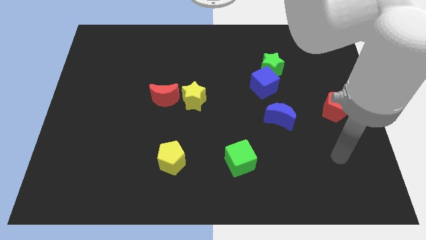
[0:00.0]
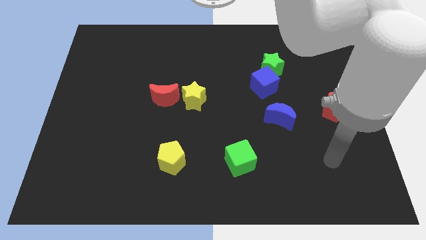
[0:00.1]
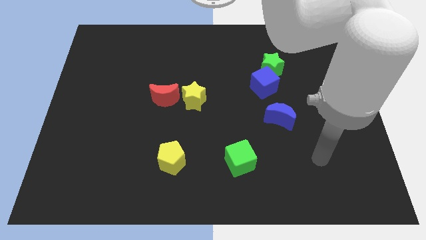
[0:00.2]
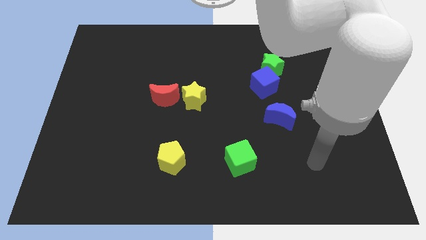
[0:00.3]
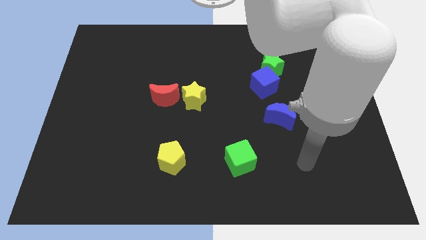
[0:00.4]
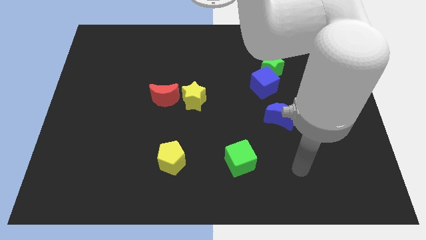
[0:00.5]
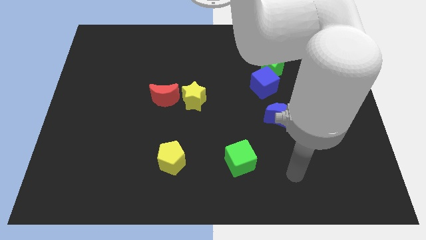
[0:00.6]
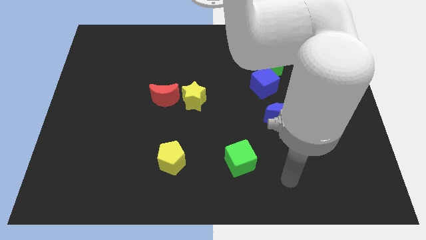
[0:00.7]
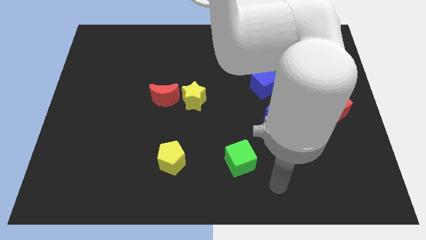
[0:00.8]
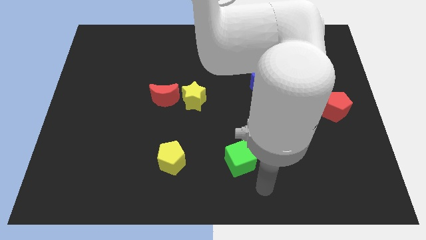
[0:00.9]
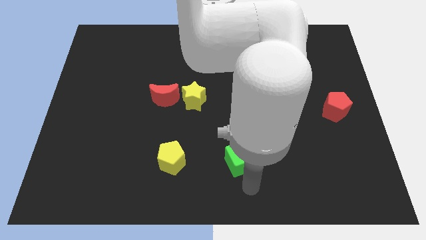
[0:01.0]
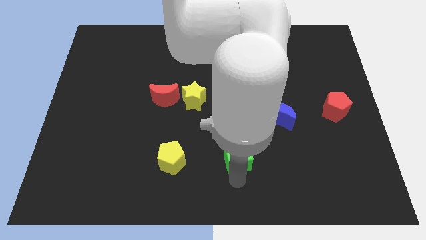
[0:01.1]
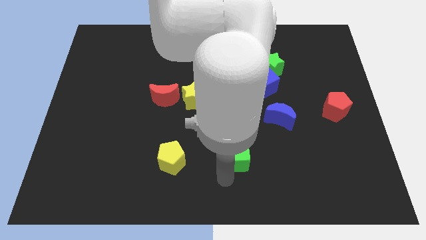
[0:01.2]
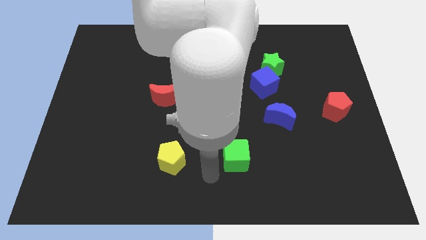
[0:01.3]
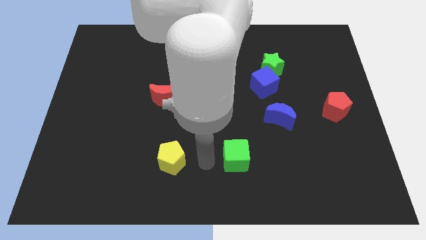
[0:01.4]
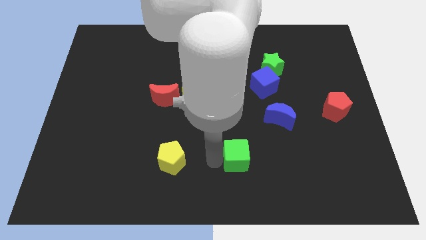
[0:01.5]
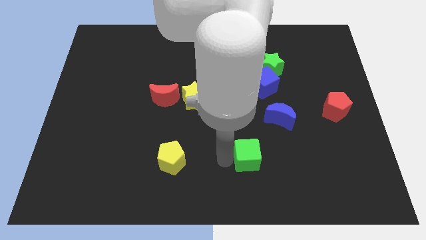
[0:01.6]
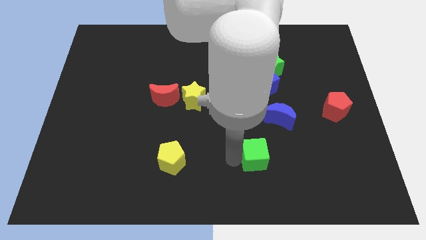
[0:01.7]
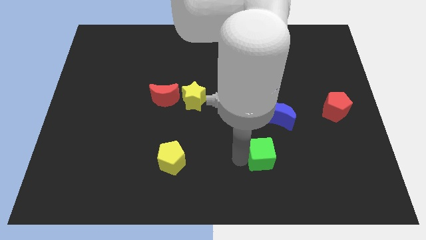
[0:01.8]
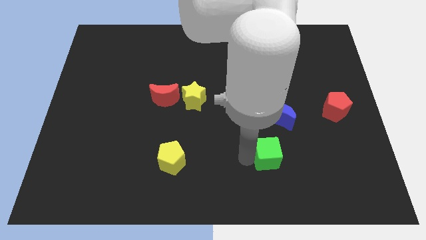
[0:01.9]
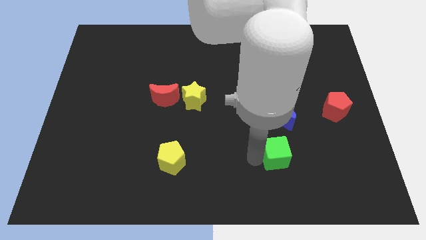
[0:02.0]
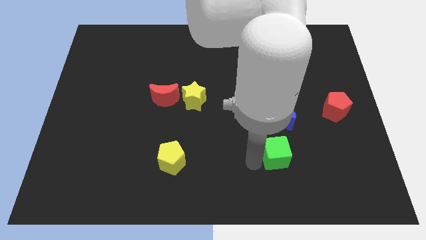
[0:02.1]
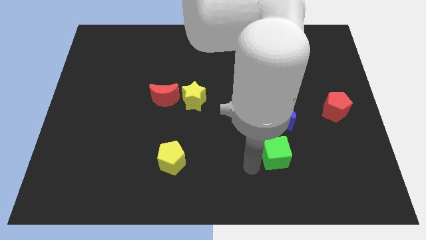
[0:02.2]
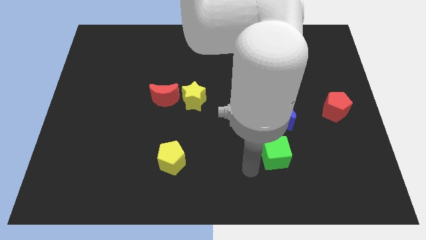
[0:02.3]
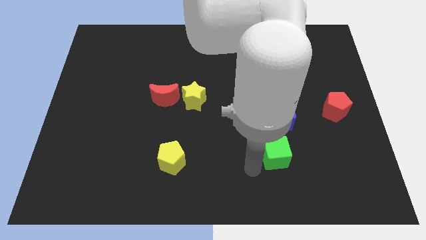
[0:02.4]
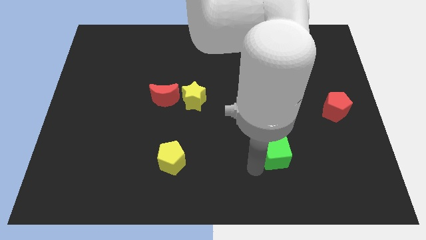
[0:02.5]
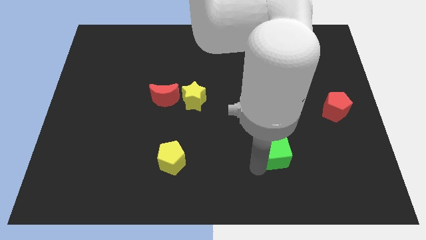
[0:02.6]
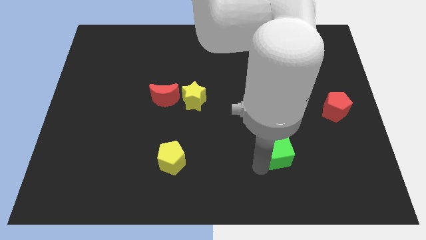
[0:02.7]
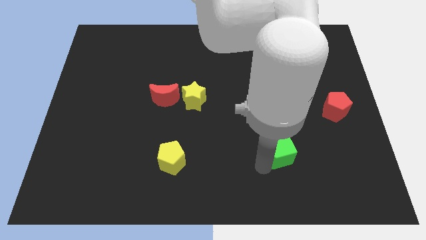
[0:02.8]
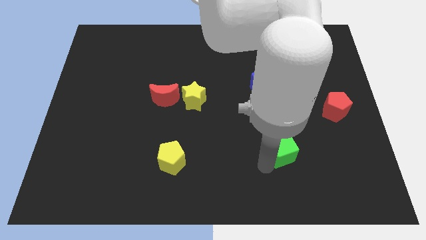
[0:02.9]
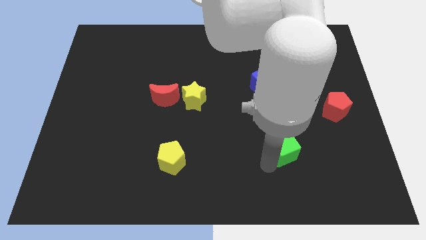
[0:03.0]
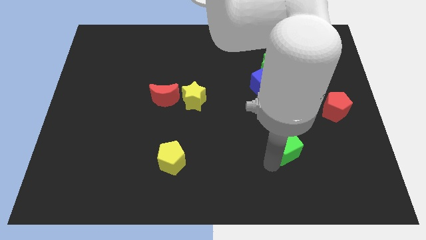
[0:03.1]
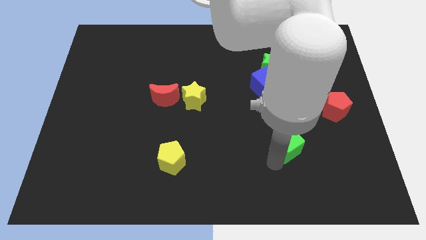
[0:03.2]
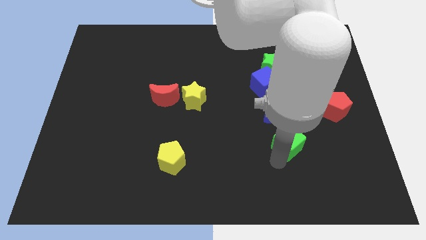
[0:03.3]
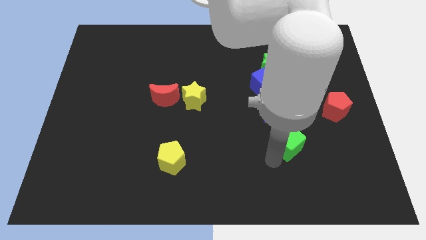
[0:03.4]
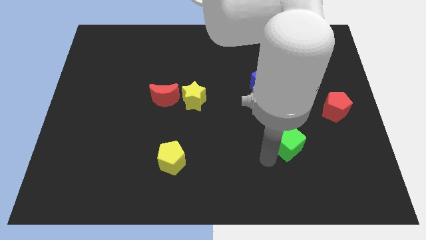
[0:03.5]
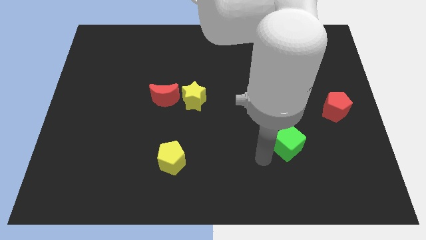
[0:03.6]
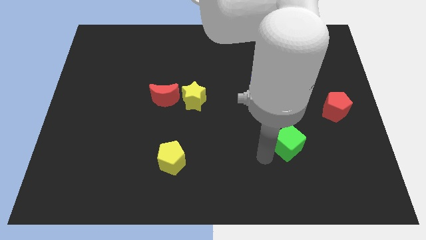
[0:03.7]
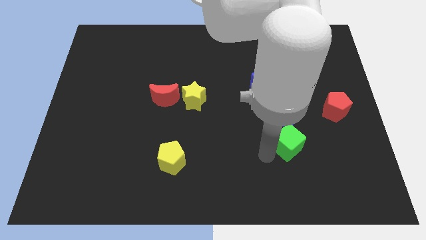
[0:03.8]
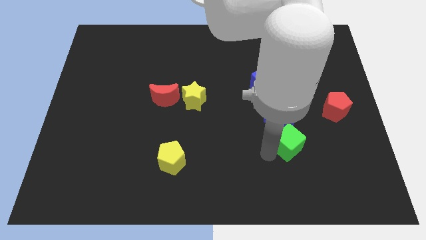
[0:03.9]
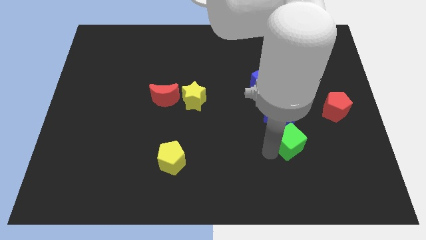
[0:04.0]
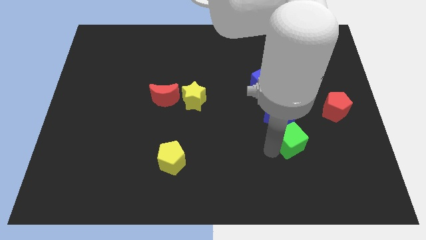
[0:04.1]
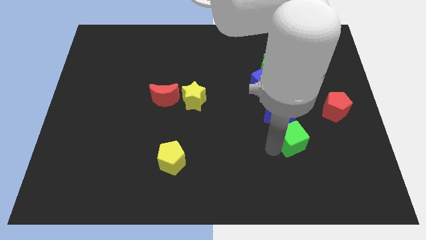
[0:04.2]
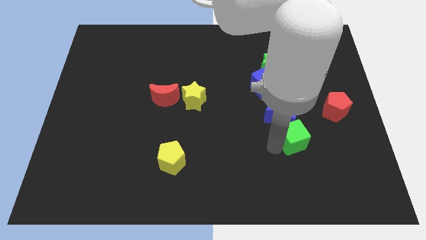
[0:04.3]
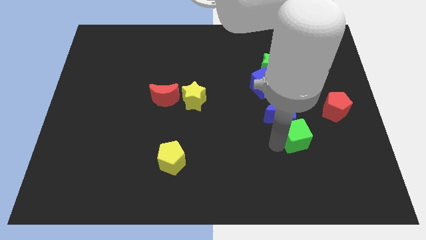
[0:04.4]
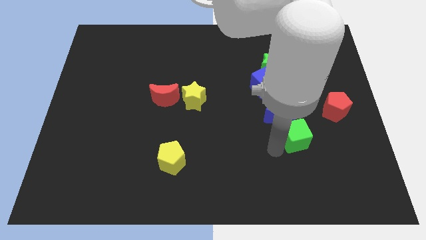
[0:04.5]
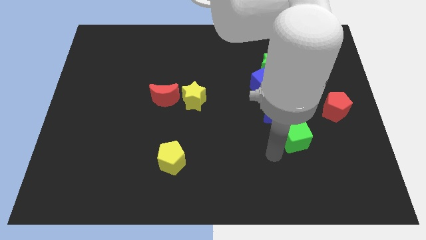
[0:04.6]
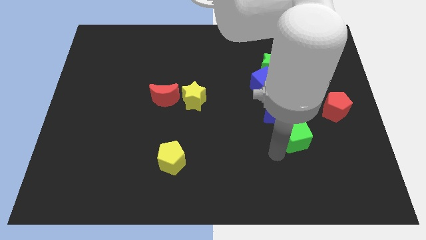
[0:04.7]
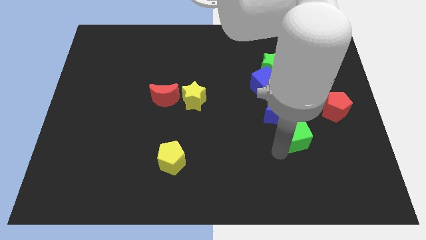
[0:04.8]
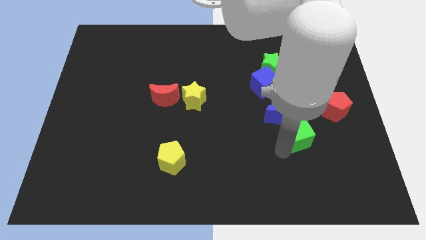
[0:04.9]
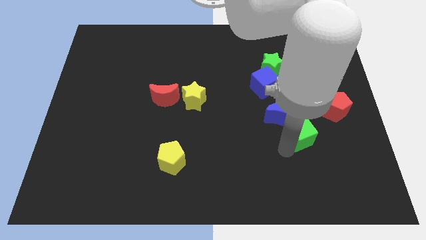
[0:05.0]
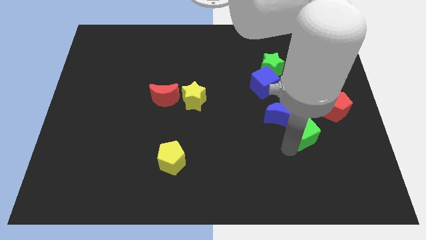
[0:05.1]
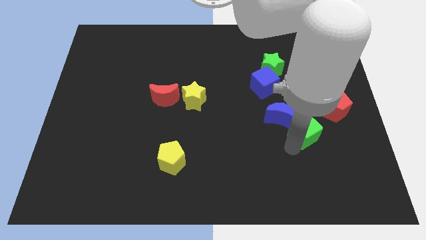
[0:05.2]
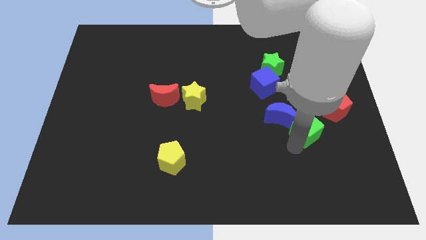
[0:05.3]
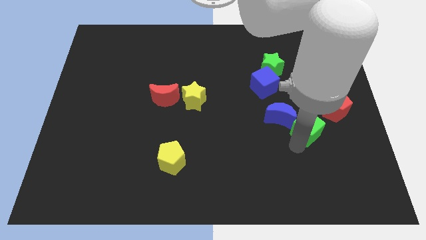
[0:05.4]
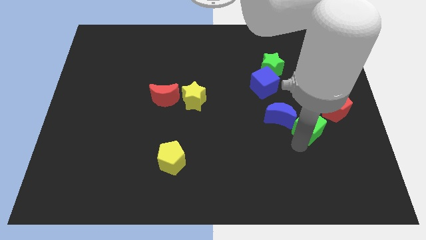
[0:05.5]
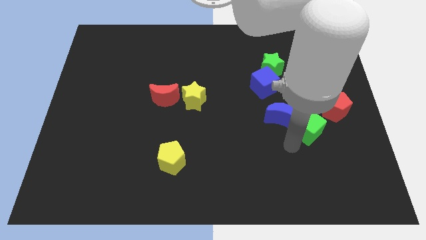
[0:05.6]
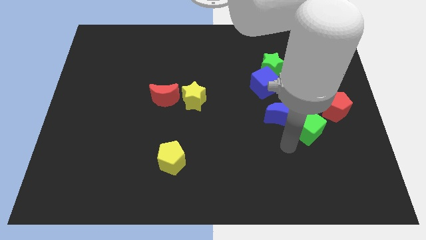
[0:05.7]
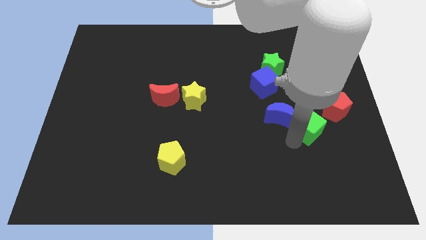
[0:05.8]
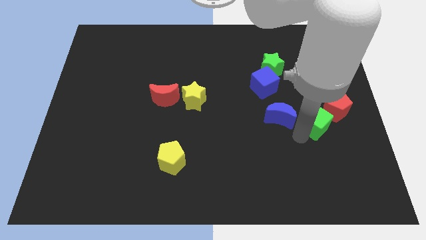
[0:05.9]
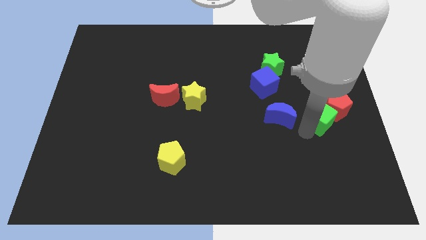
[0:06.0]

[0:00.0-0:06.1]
move the green cube towards the red pentagon

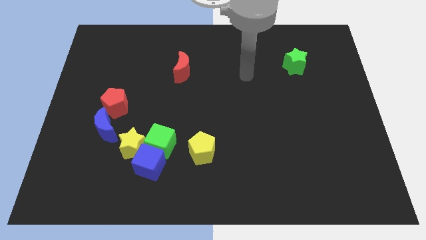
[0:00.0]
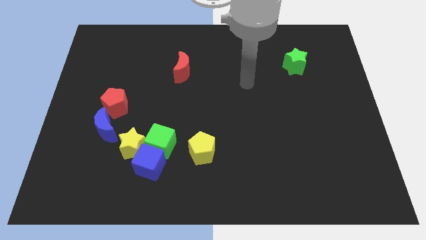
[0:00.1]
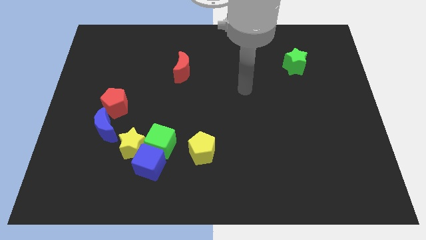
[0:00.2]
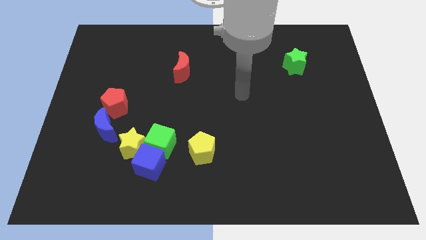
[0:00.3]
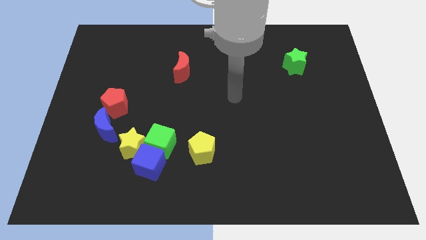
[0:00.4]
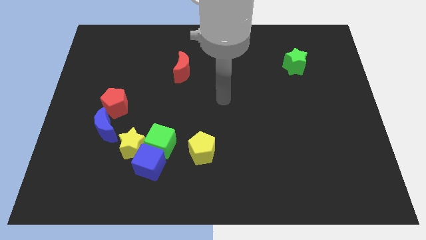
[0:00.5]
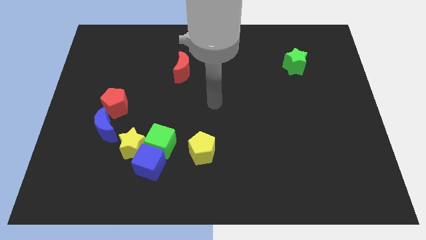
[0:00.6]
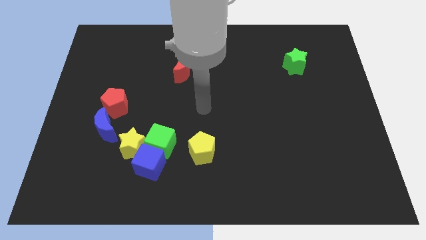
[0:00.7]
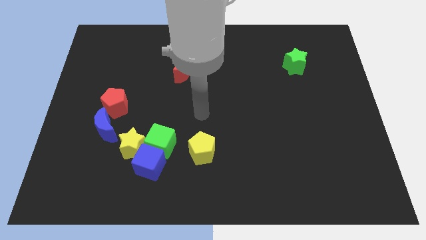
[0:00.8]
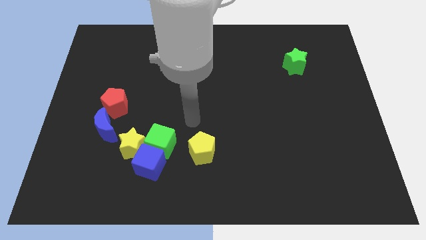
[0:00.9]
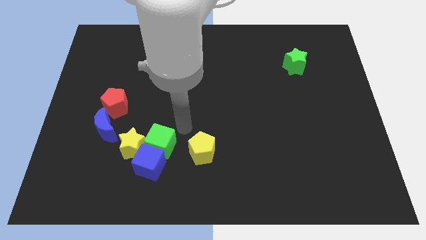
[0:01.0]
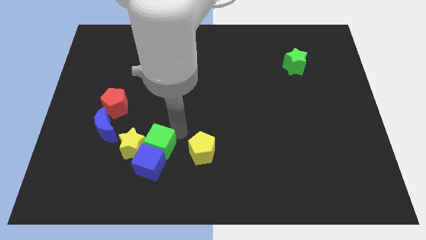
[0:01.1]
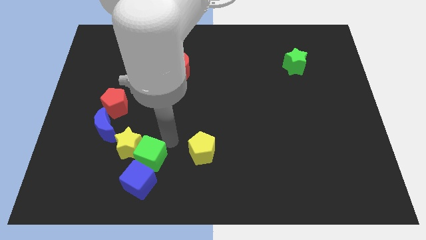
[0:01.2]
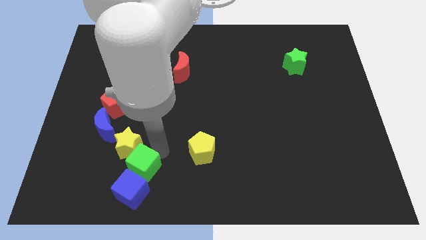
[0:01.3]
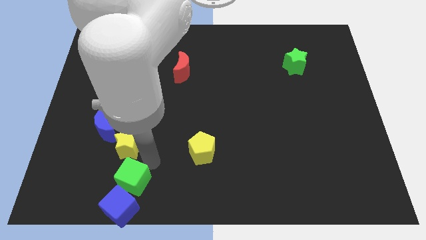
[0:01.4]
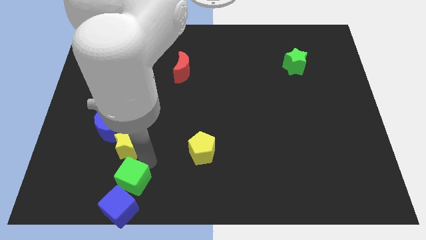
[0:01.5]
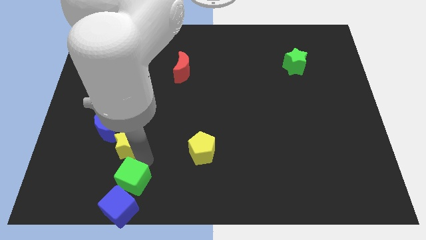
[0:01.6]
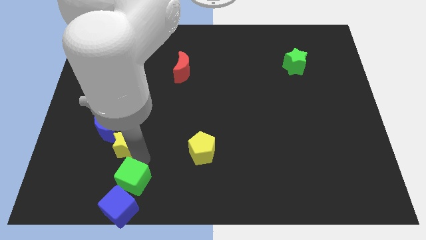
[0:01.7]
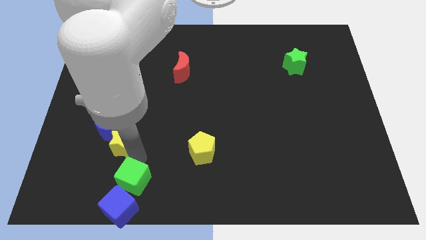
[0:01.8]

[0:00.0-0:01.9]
slide the yellow star next to the blue moon

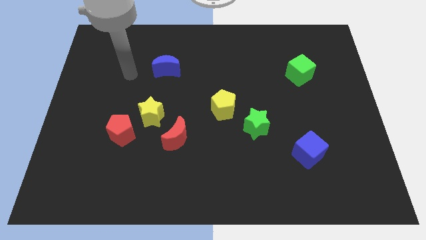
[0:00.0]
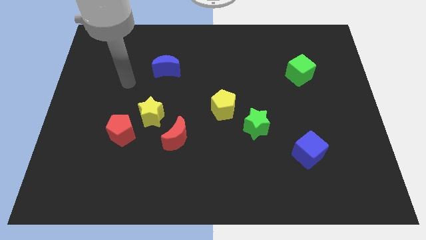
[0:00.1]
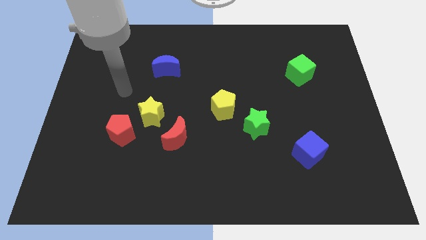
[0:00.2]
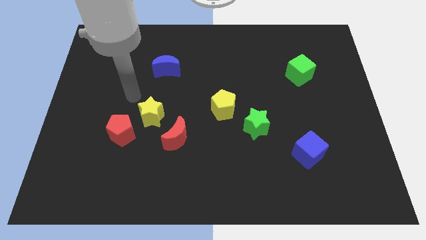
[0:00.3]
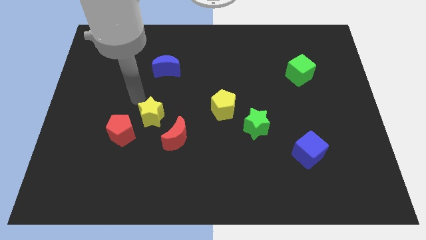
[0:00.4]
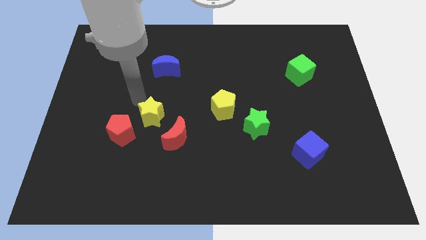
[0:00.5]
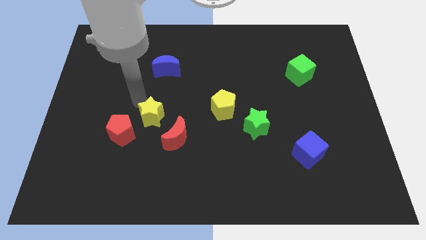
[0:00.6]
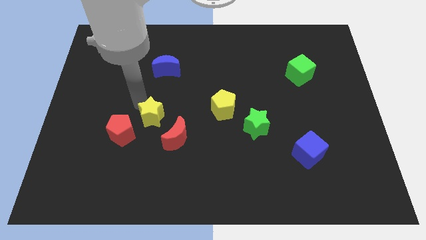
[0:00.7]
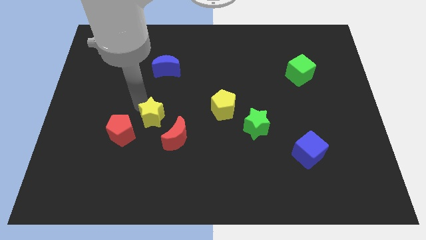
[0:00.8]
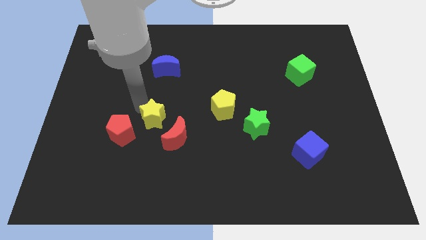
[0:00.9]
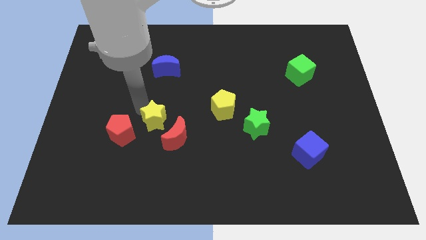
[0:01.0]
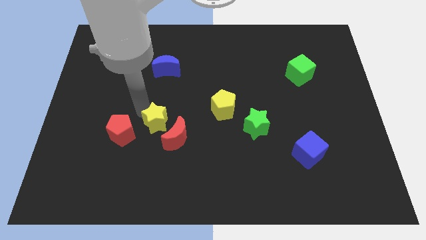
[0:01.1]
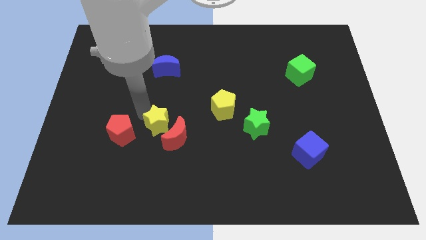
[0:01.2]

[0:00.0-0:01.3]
push the yellow star to the red moon
